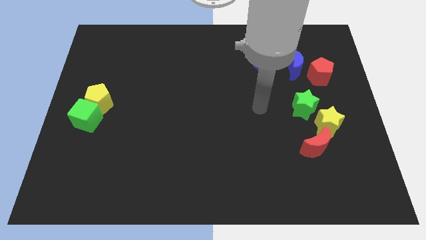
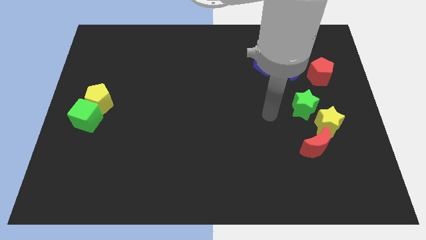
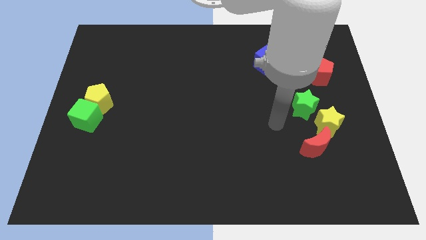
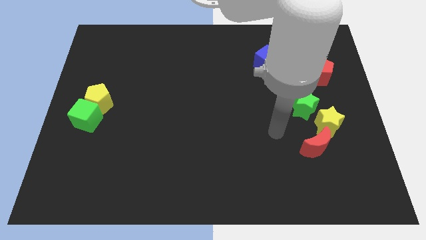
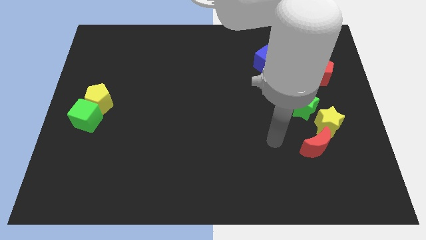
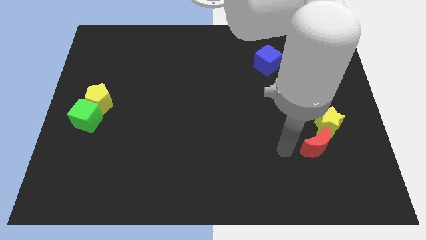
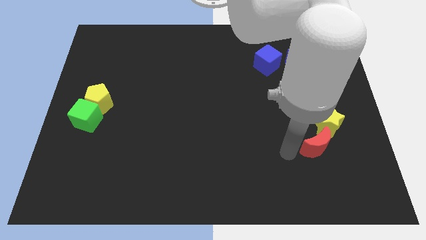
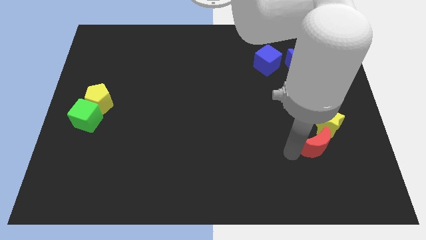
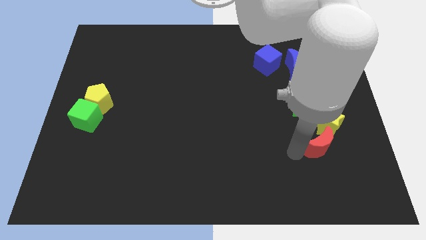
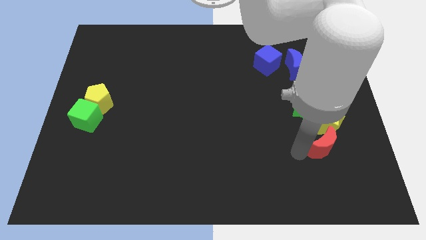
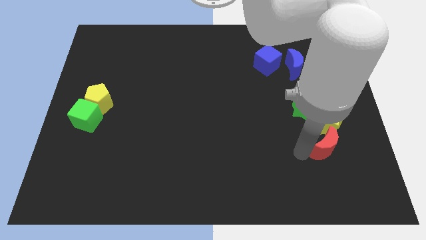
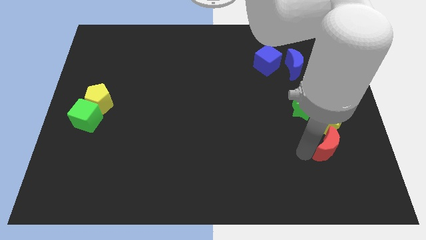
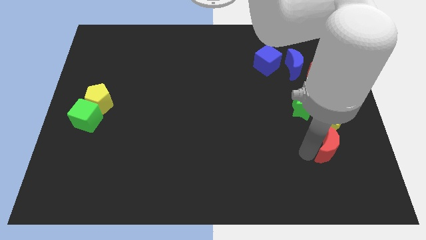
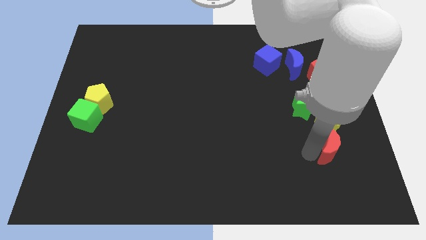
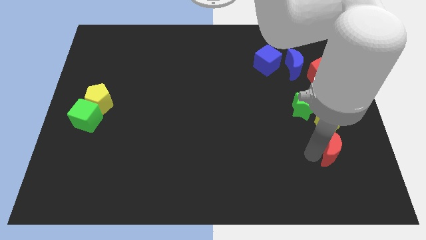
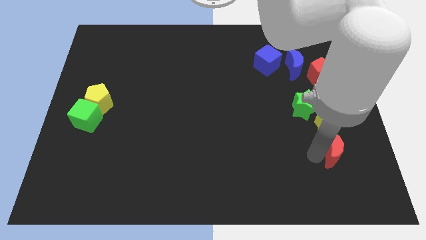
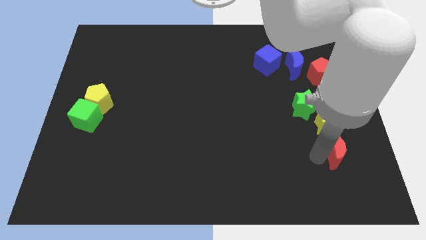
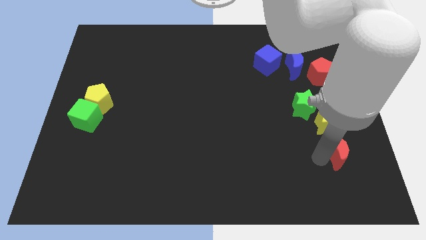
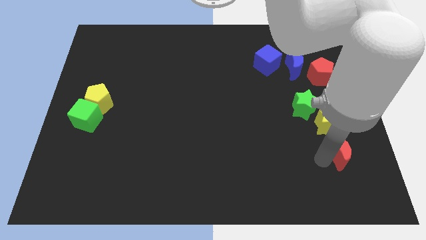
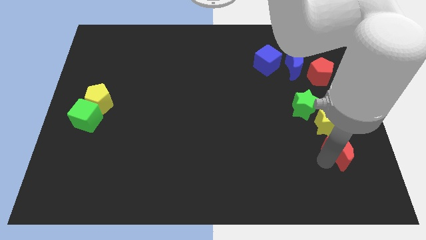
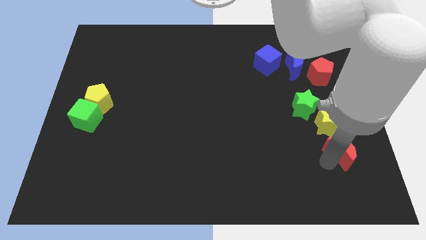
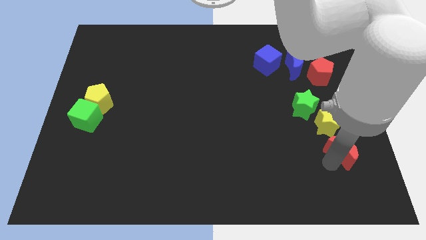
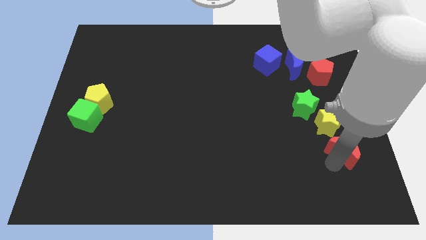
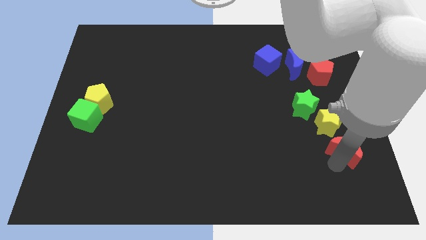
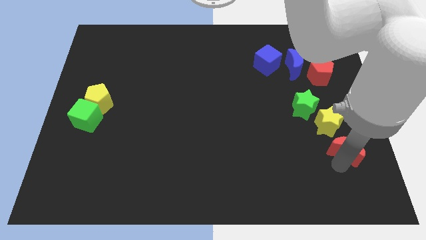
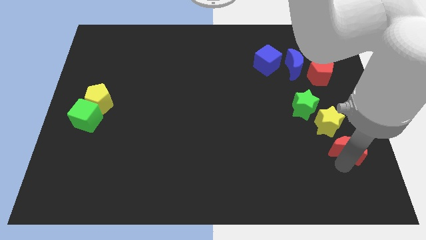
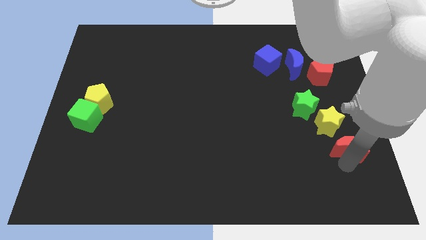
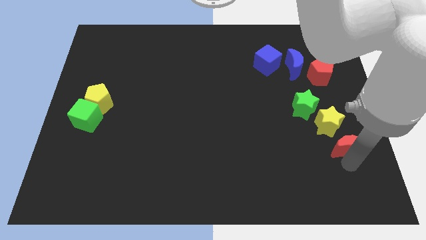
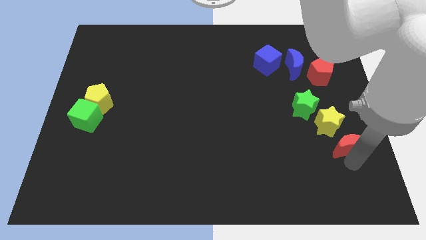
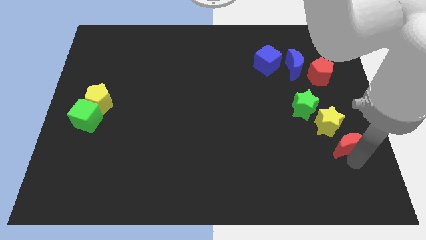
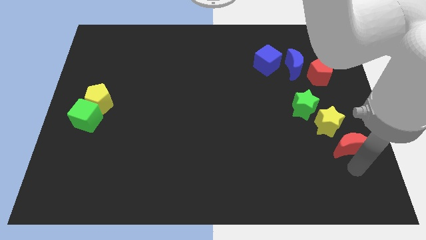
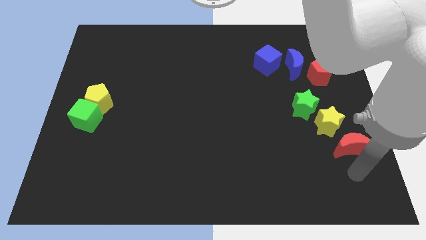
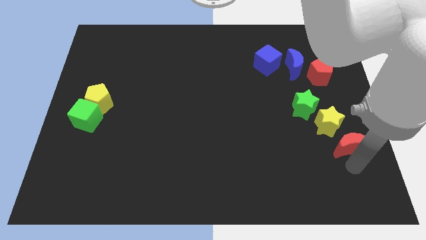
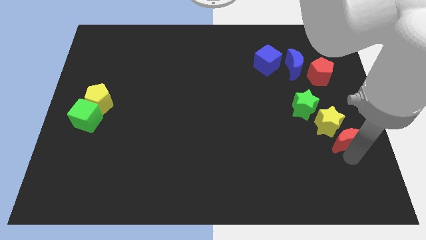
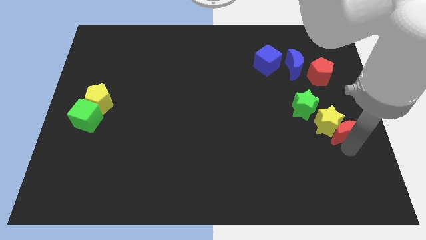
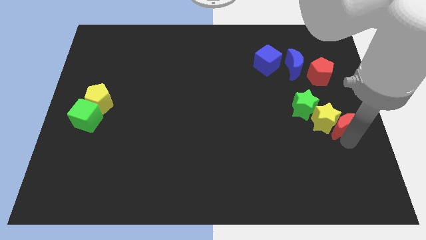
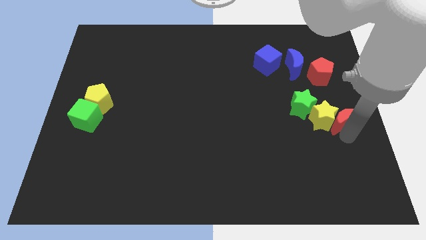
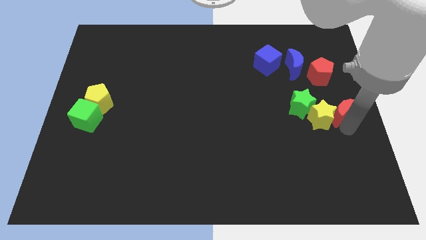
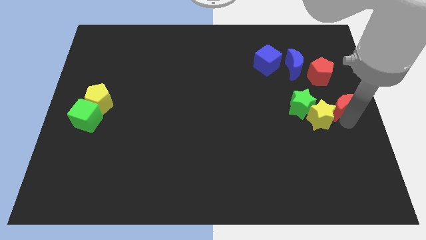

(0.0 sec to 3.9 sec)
slightly move the red moon up

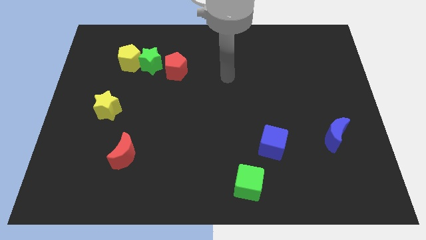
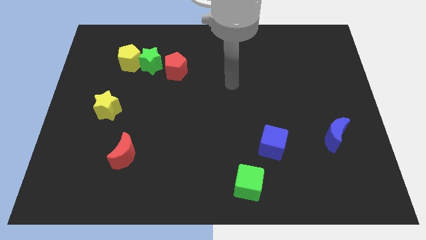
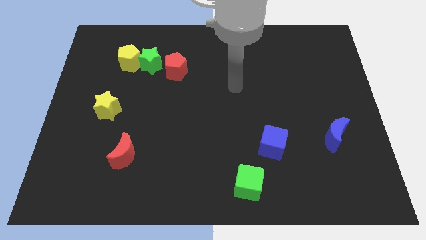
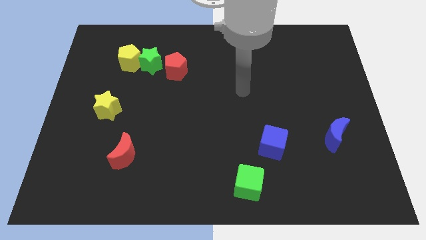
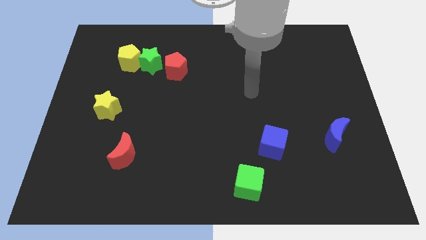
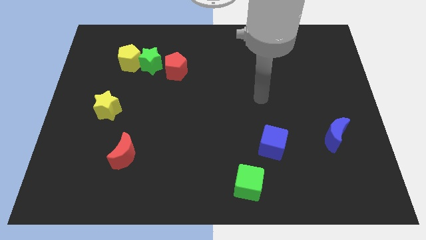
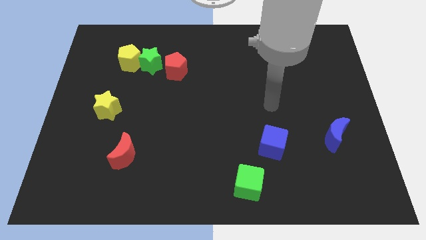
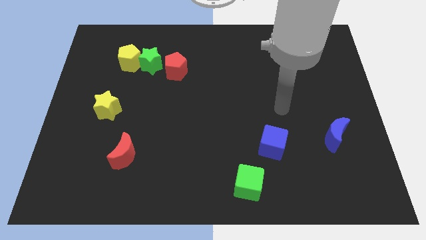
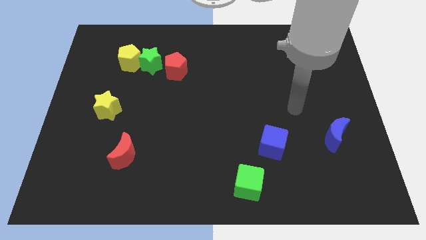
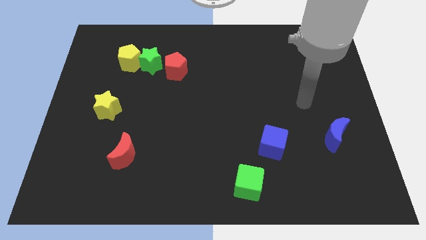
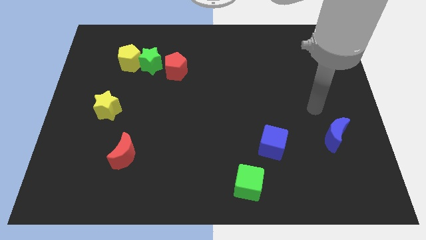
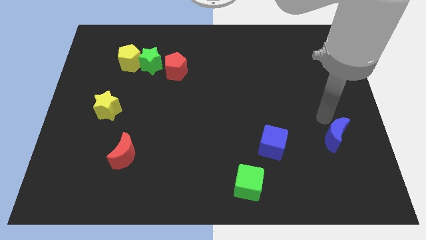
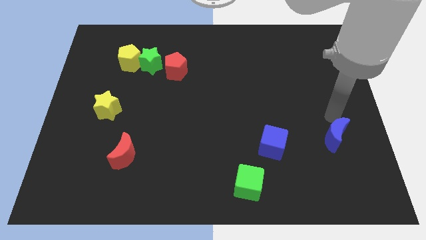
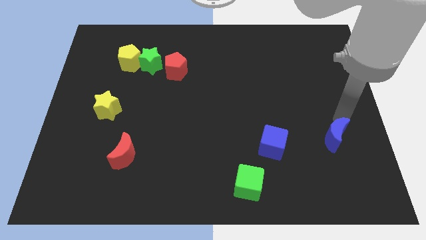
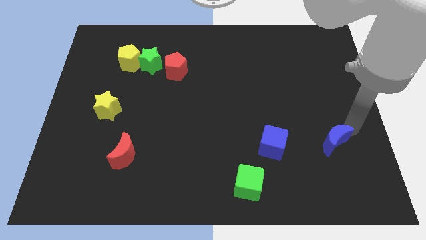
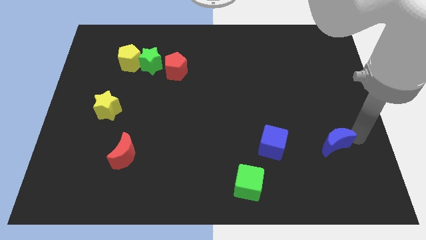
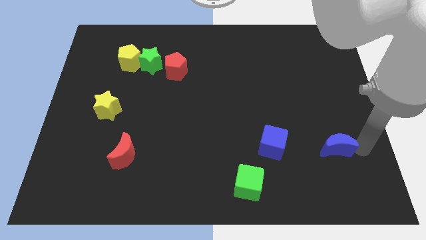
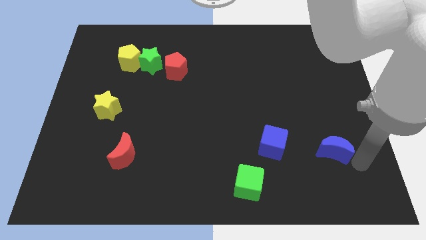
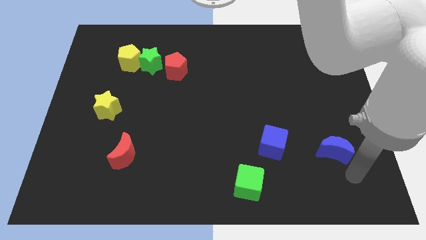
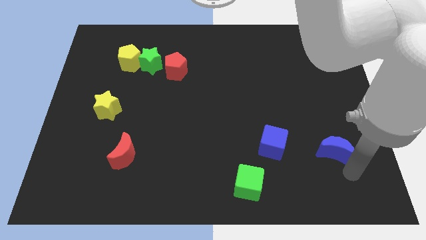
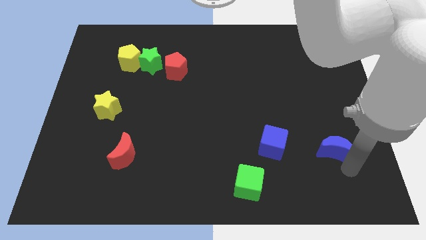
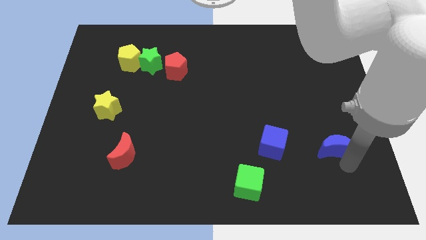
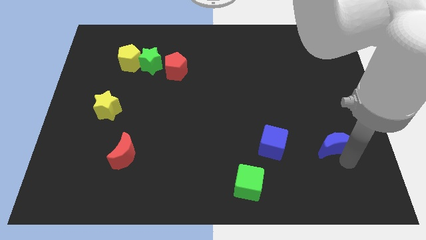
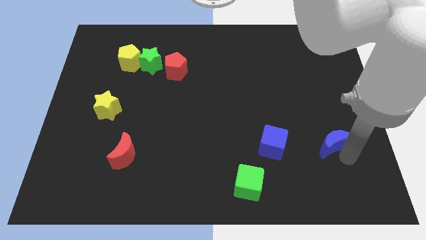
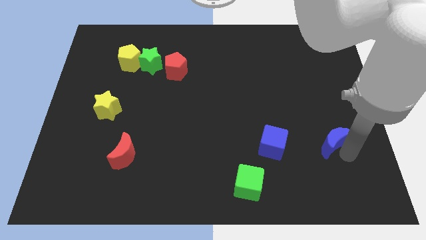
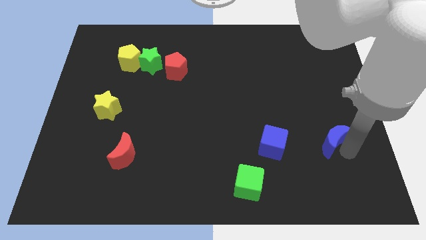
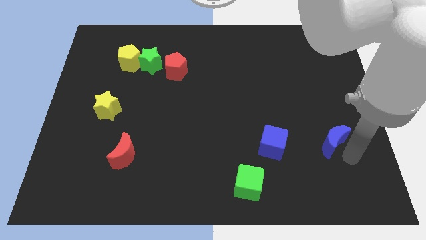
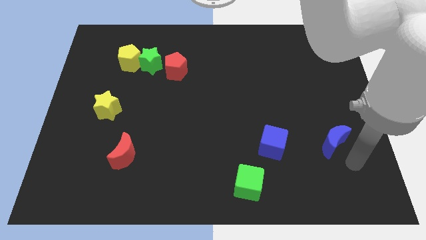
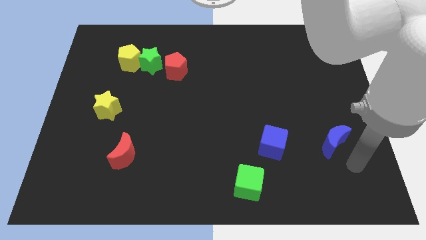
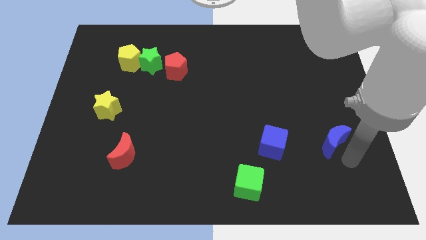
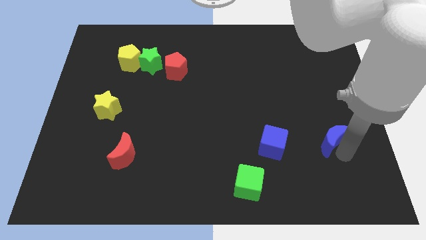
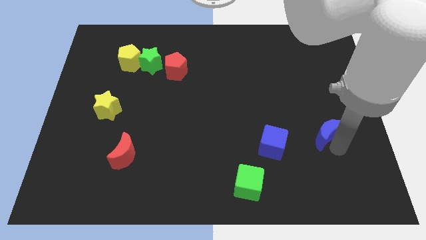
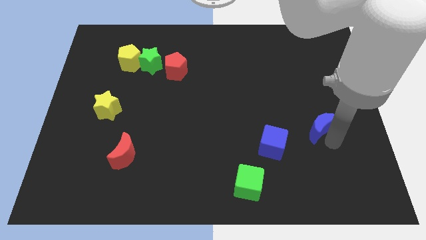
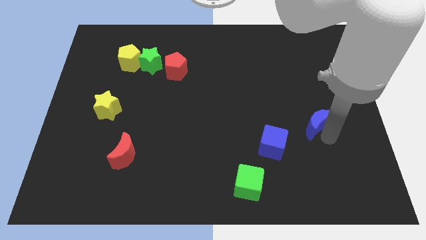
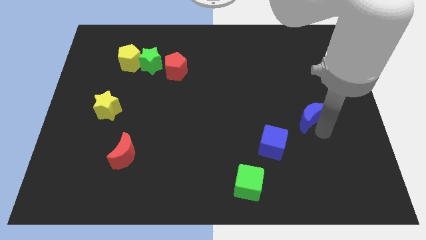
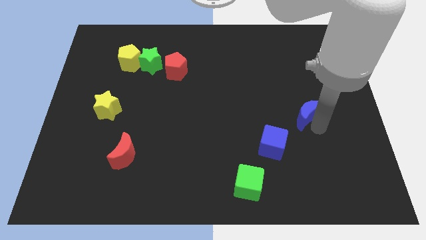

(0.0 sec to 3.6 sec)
move the blue moon somewhat upwards and then left

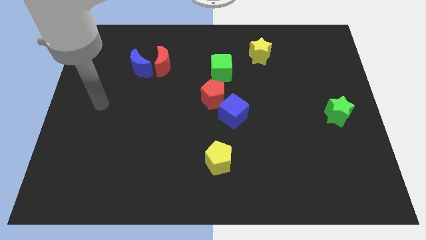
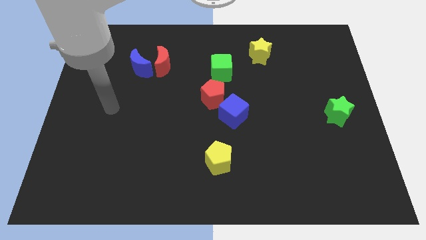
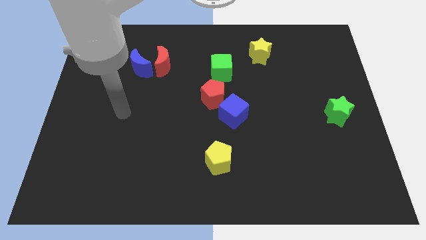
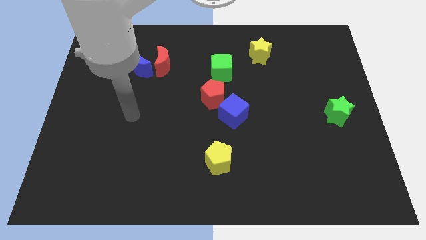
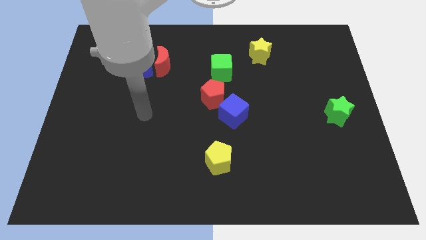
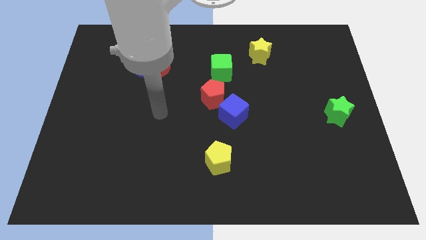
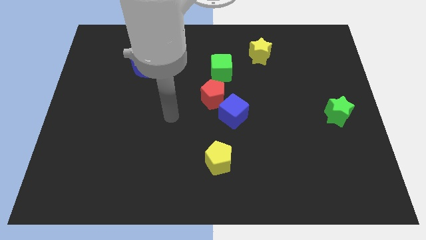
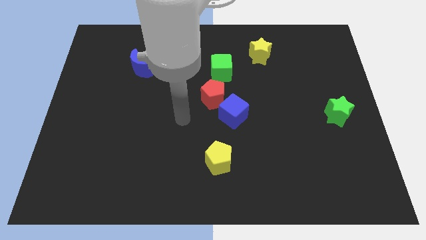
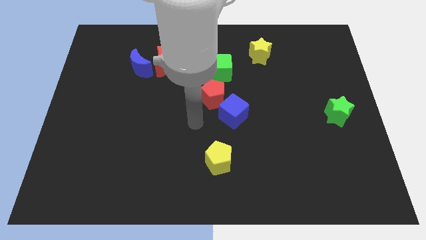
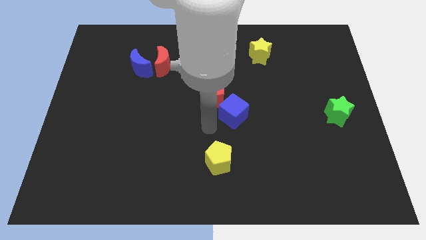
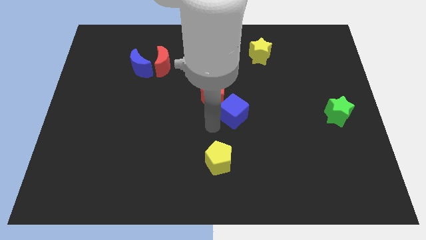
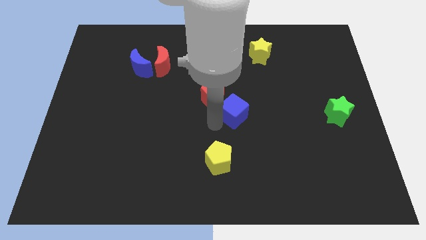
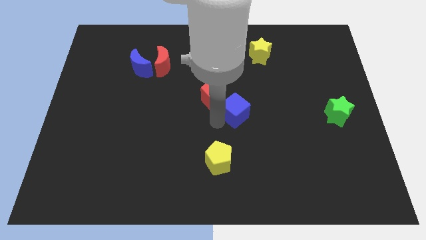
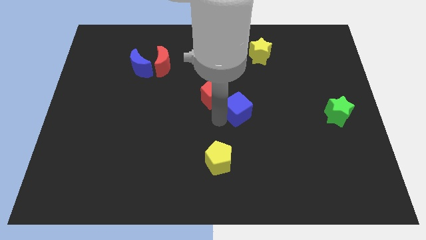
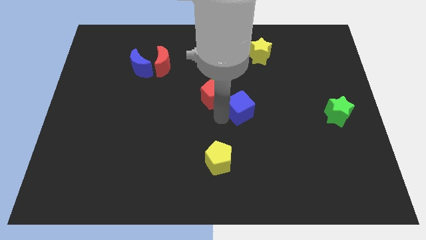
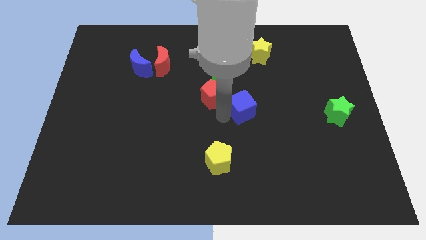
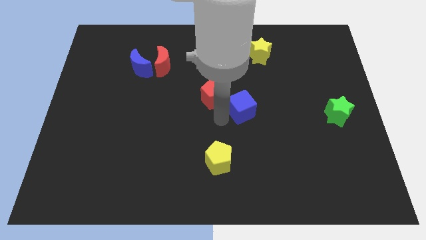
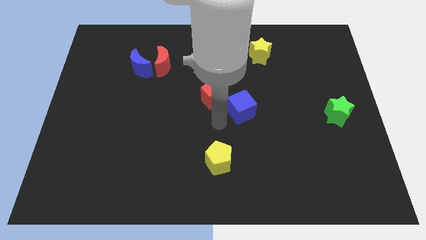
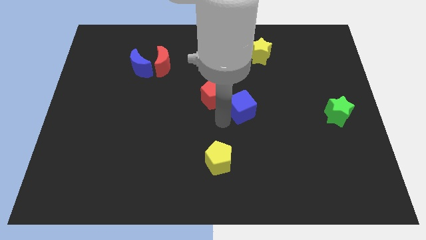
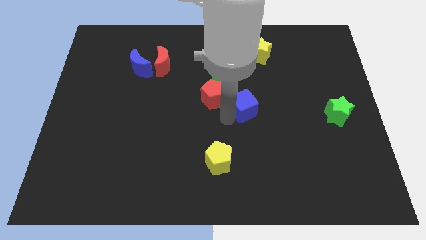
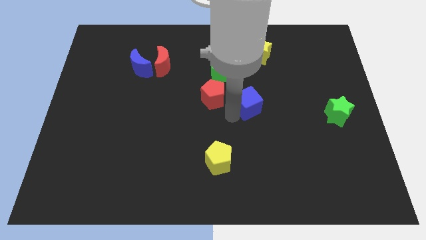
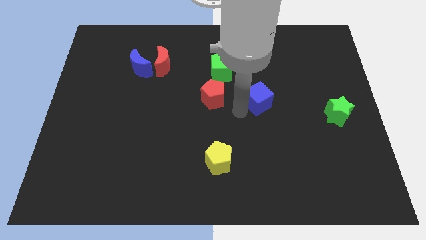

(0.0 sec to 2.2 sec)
push the blue cube upwards and then right a little bit
